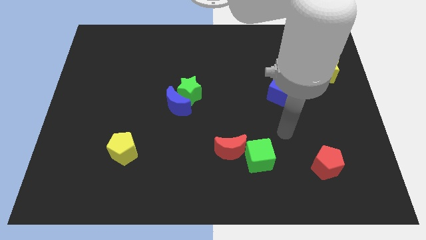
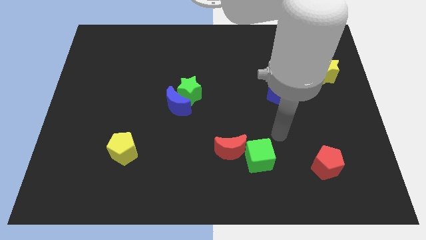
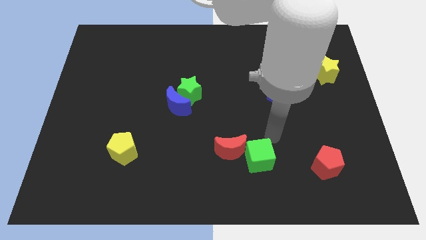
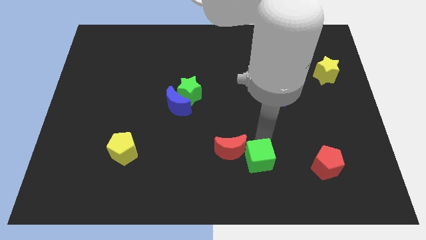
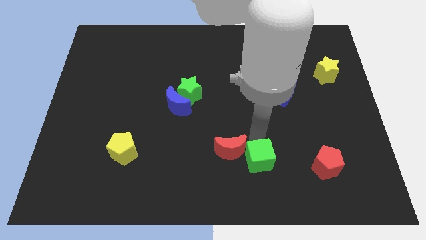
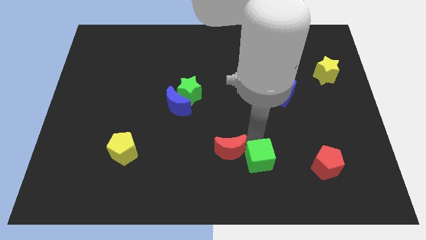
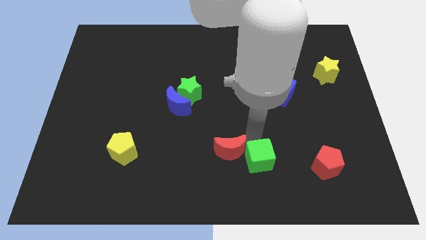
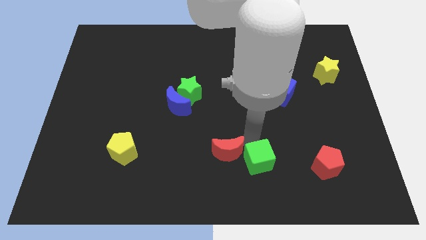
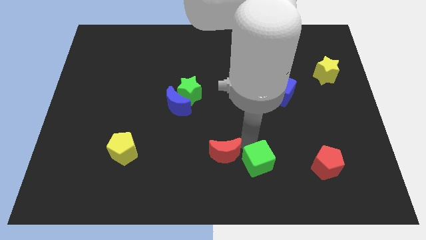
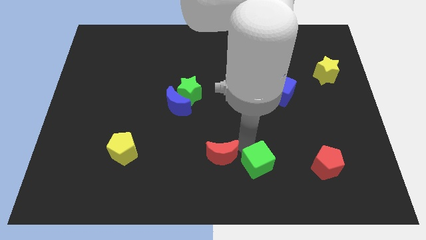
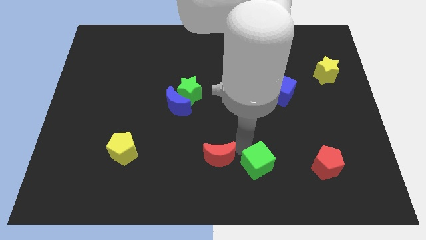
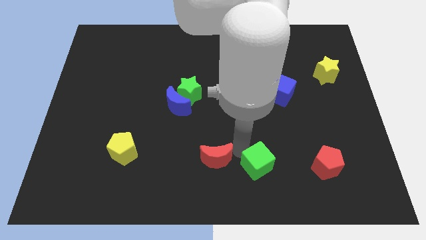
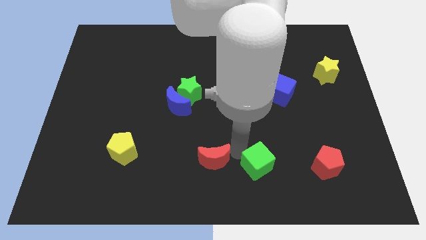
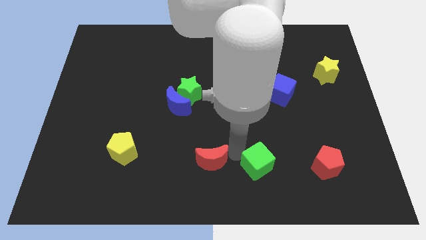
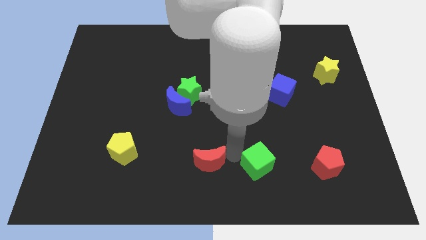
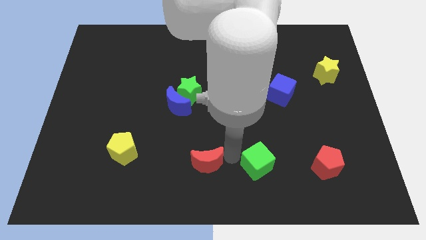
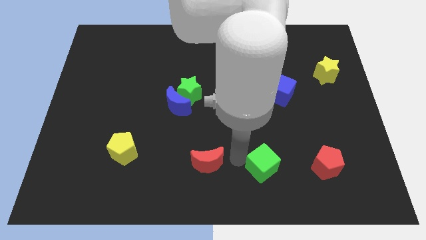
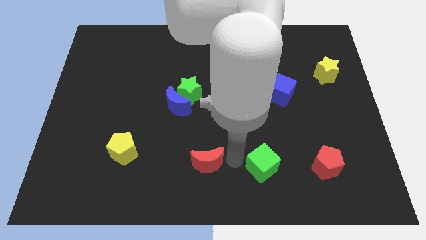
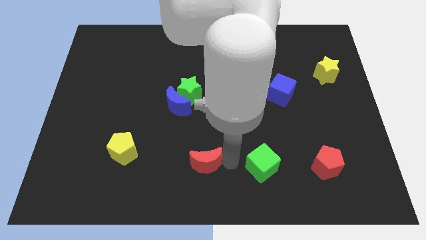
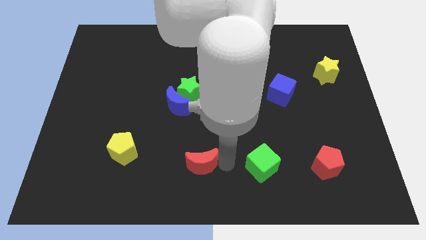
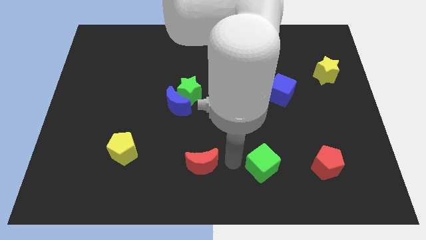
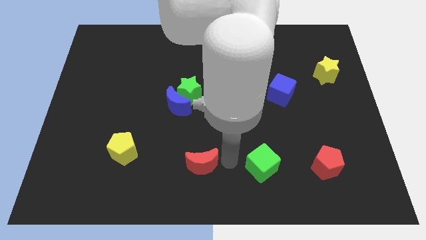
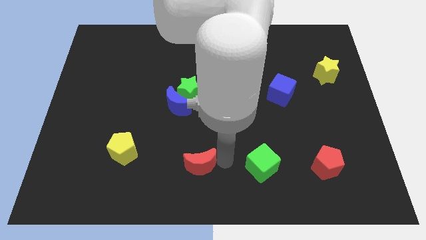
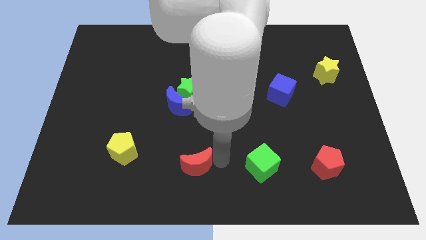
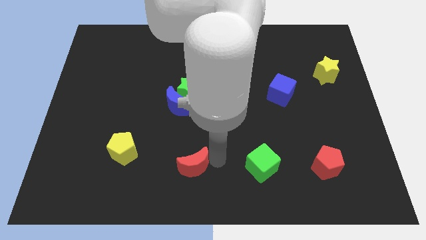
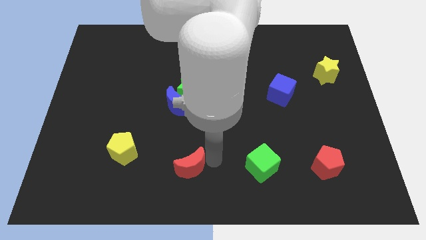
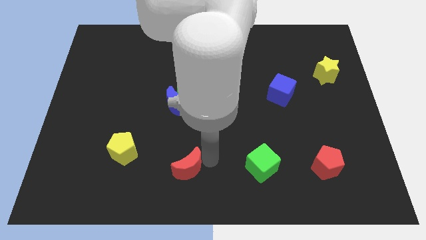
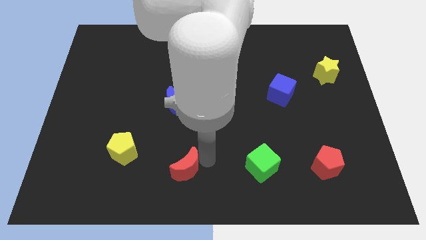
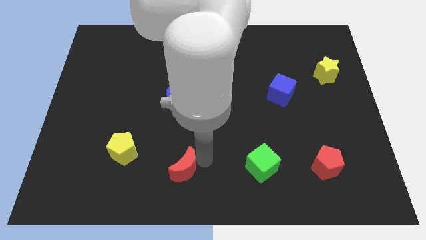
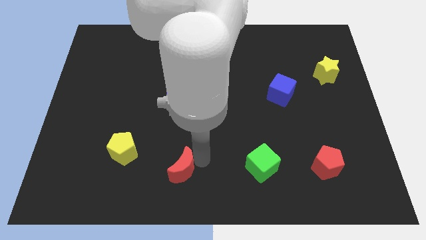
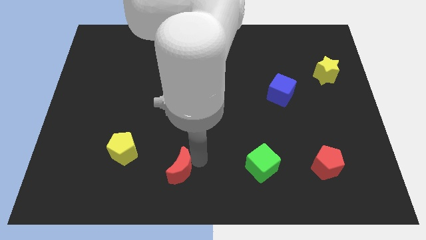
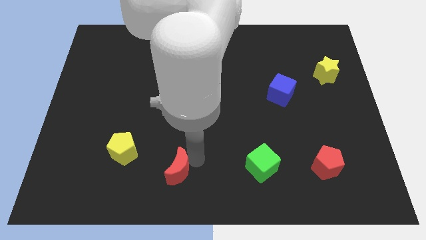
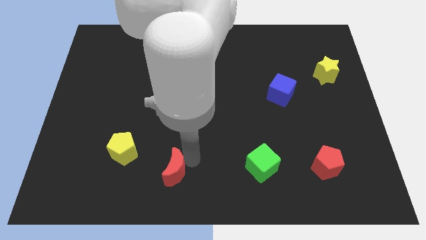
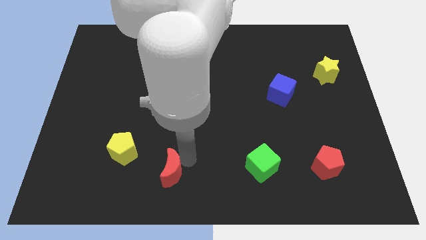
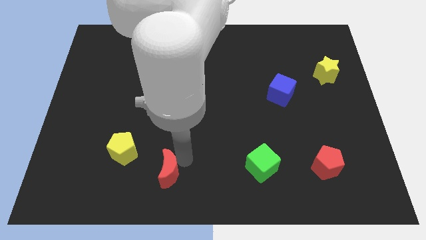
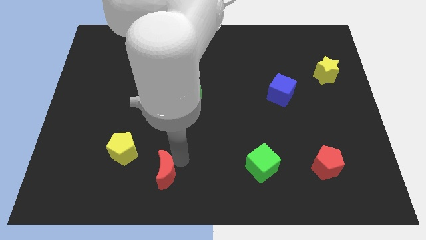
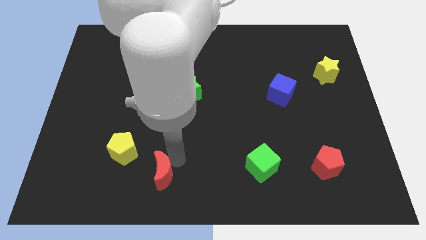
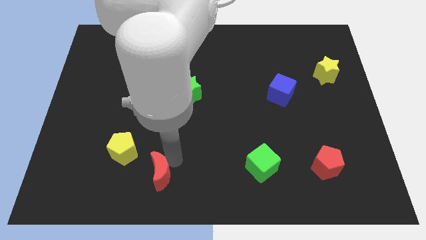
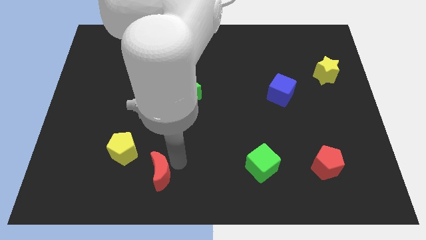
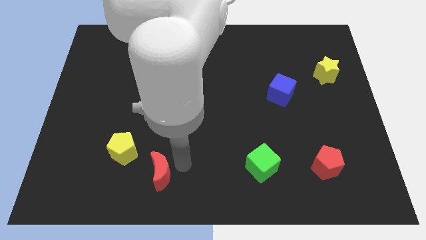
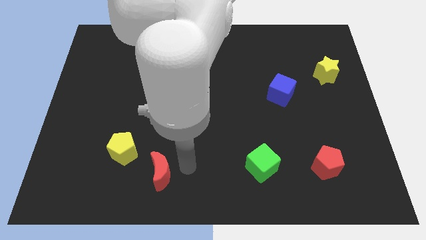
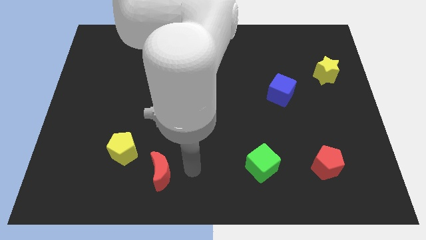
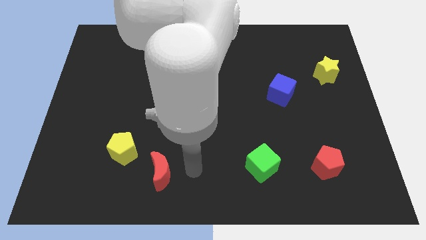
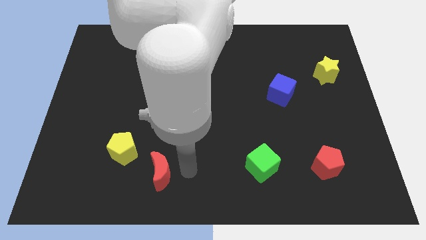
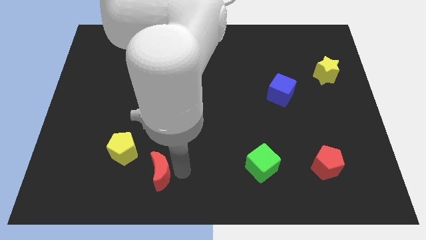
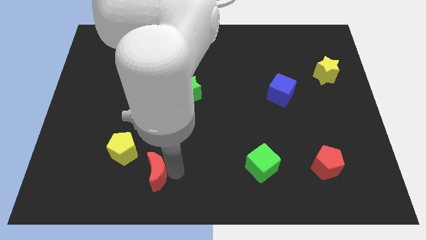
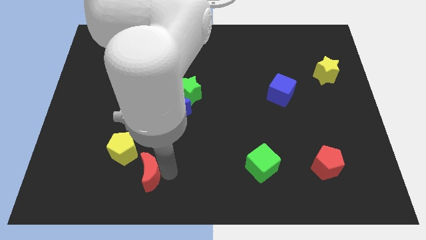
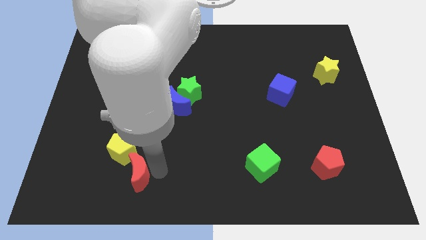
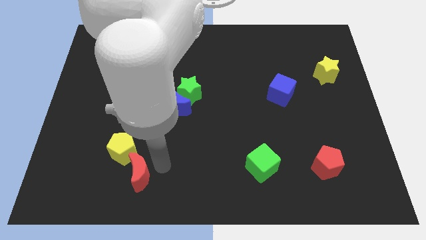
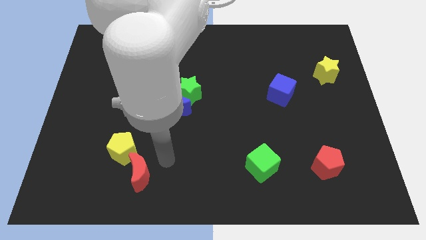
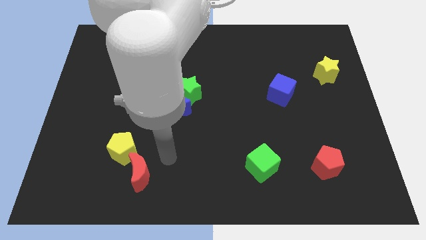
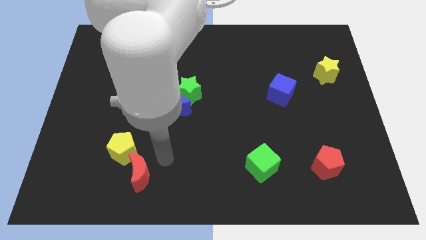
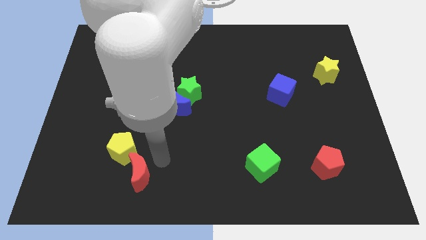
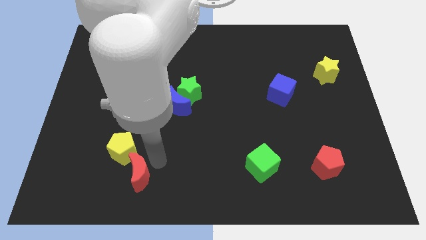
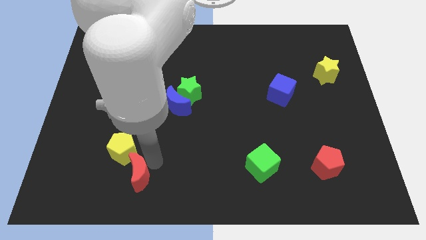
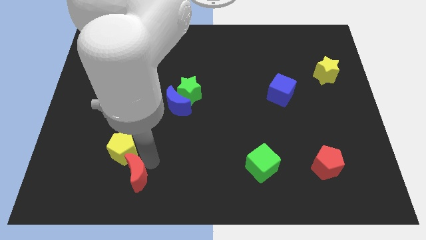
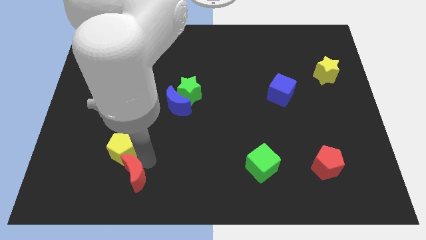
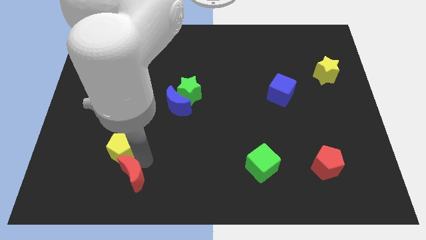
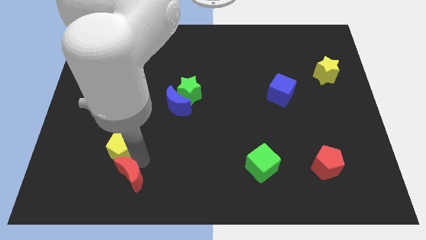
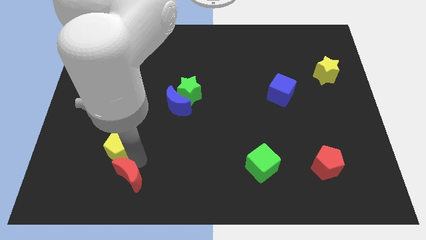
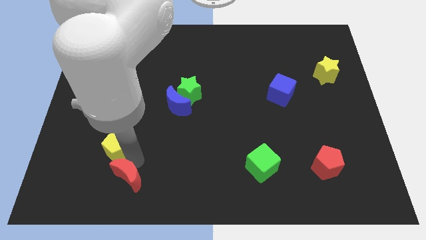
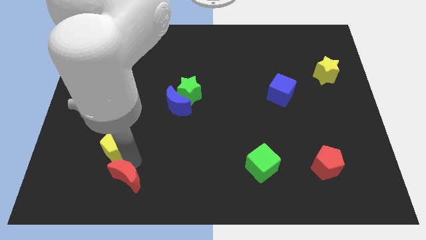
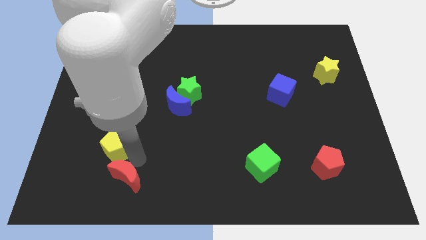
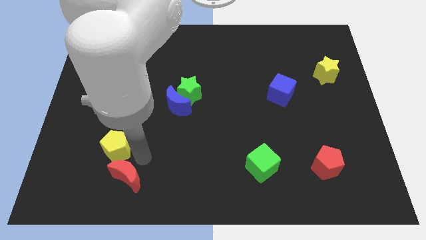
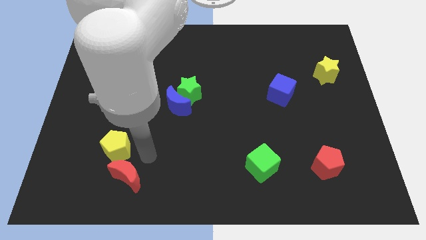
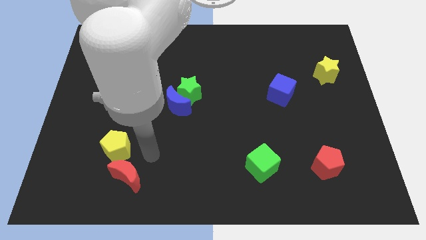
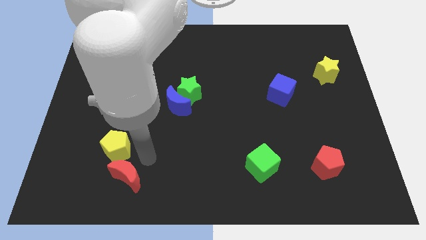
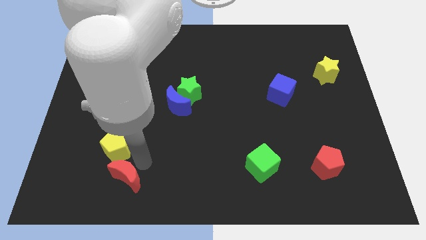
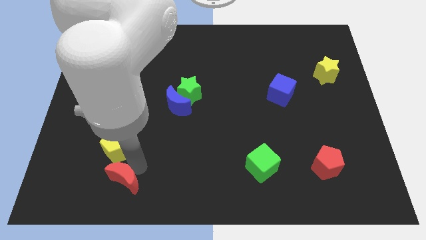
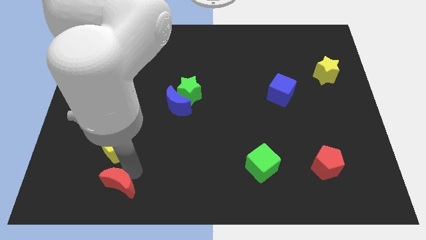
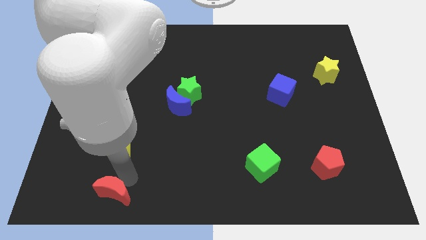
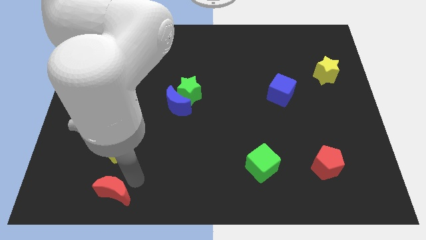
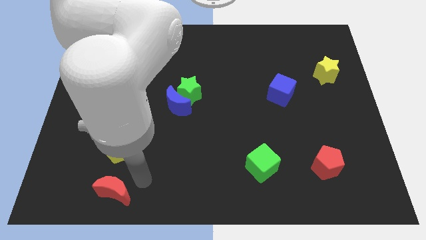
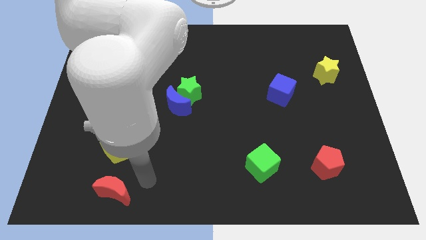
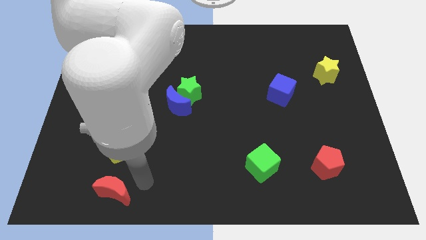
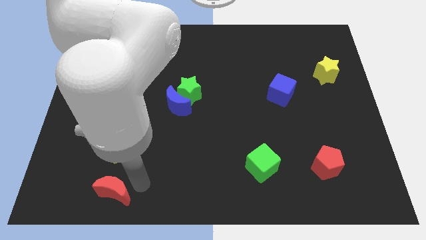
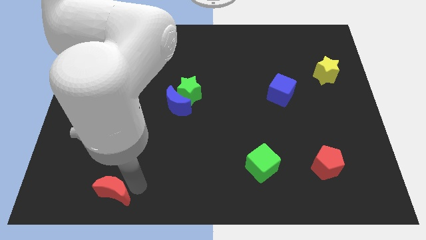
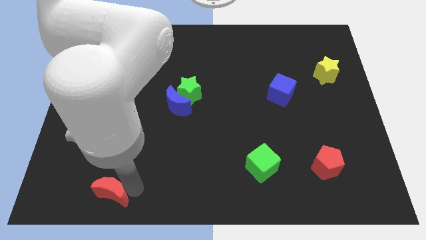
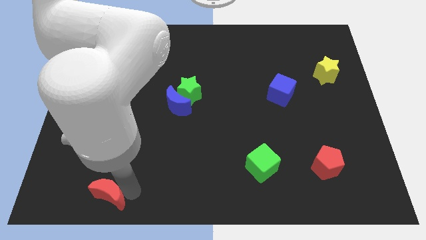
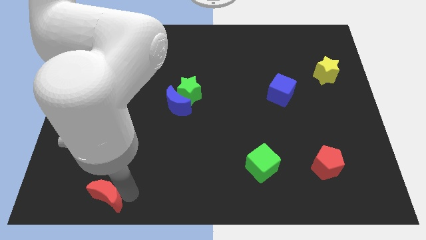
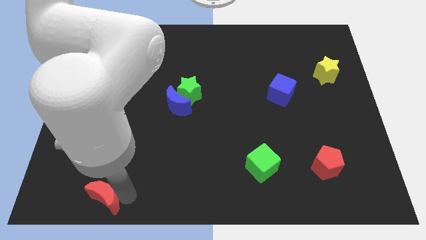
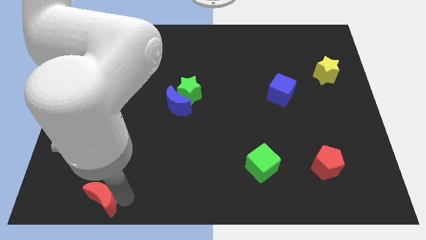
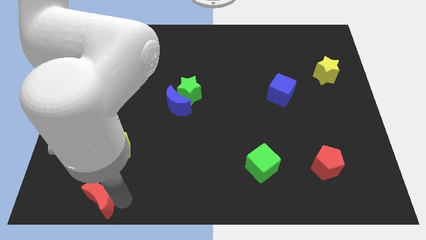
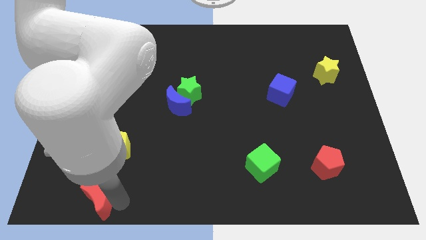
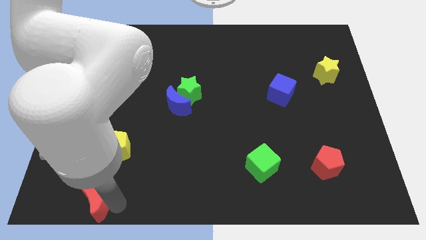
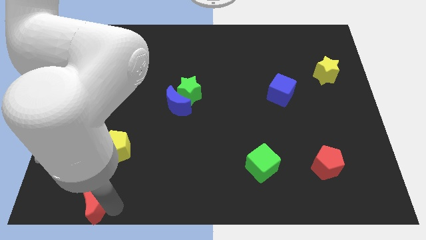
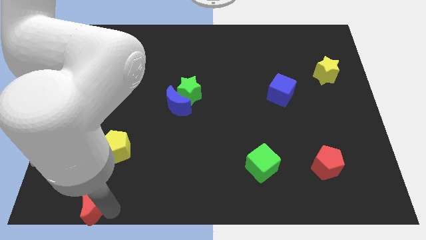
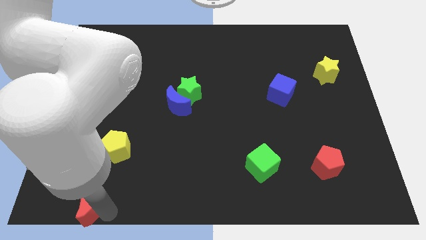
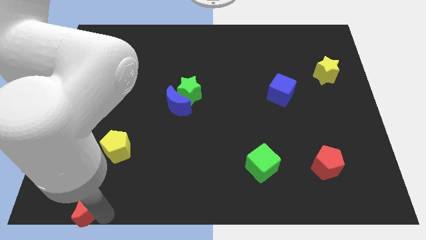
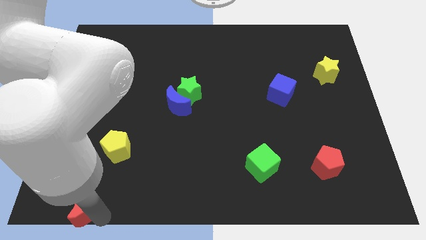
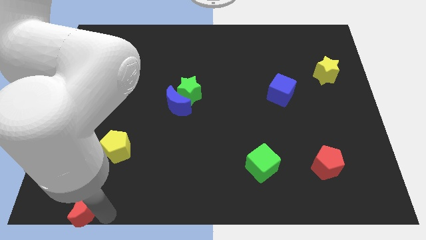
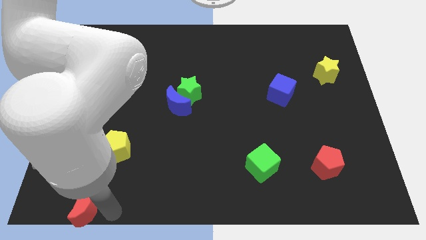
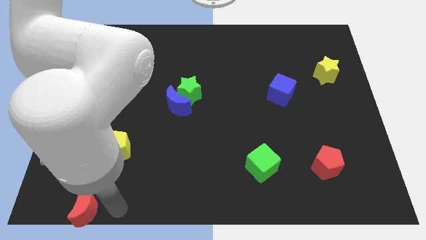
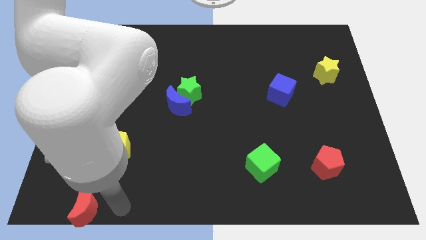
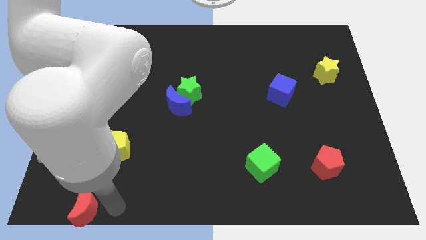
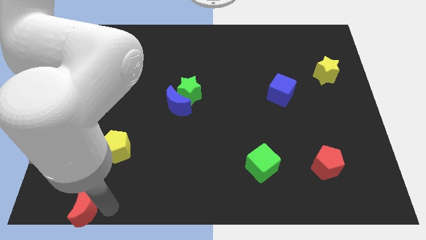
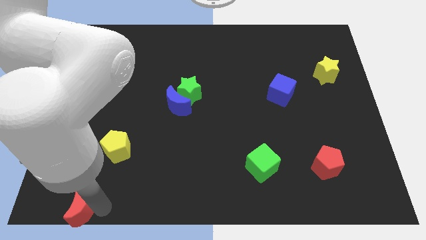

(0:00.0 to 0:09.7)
slide the red moon to the bottom left
